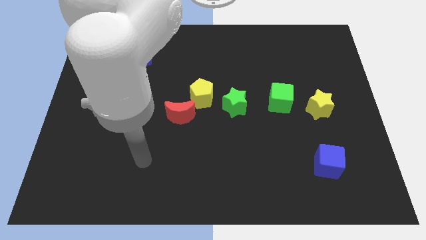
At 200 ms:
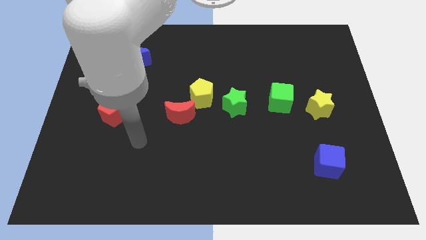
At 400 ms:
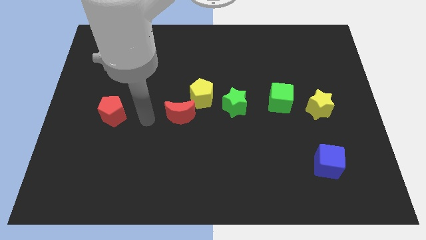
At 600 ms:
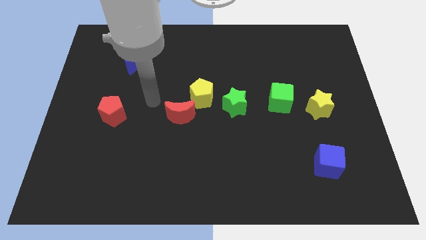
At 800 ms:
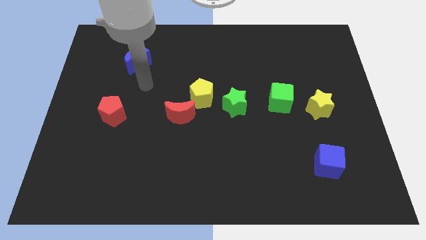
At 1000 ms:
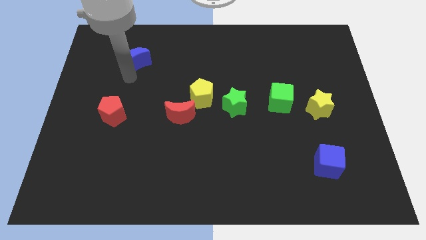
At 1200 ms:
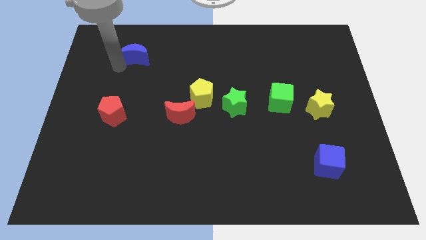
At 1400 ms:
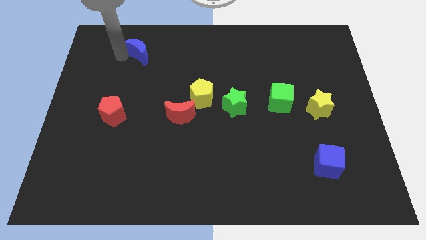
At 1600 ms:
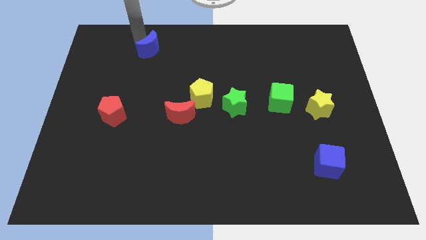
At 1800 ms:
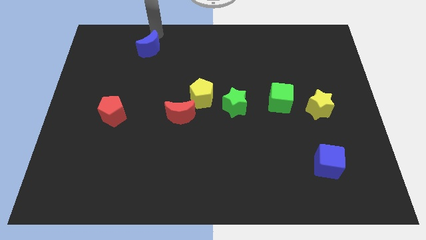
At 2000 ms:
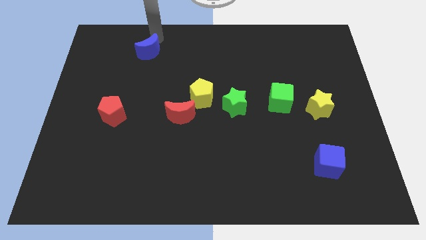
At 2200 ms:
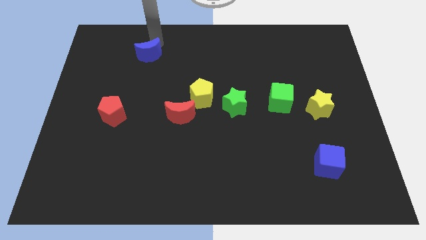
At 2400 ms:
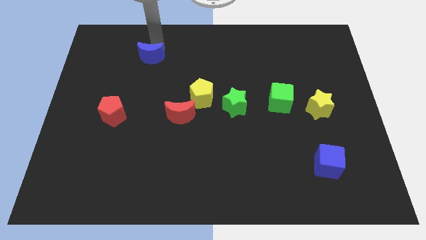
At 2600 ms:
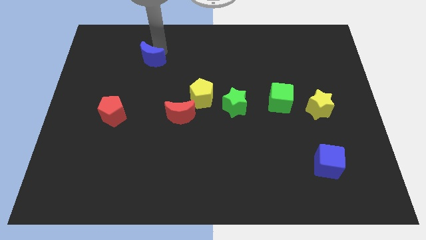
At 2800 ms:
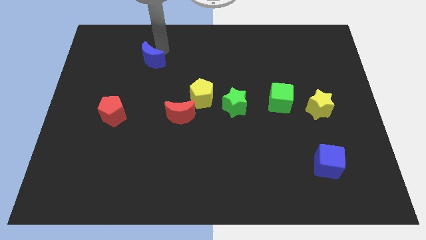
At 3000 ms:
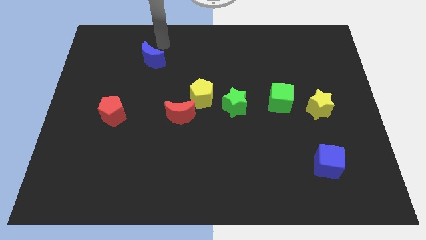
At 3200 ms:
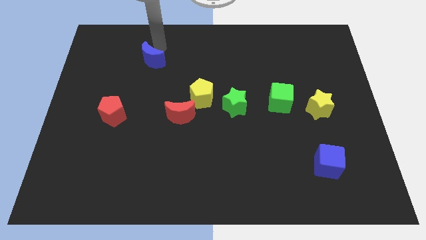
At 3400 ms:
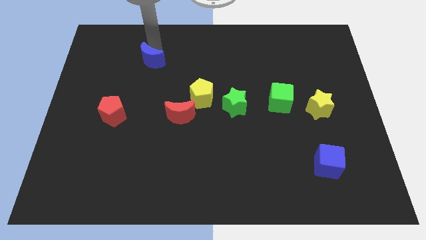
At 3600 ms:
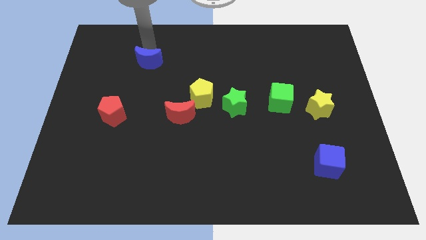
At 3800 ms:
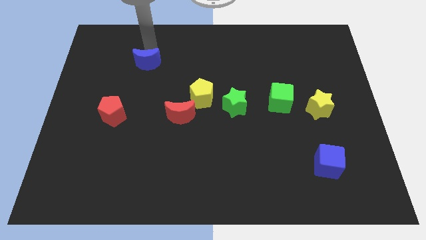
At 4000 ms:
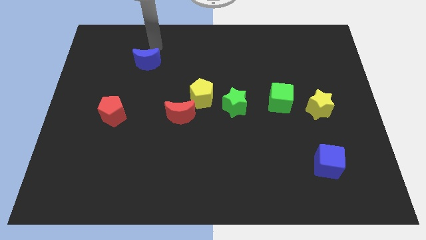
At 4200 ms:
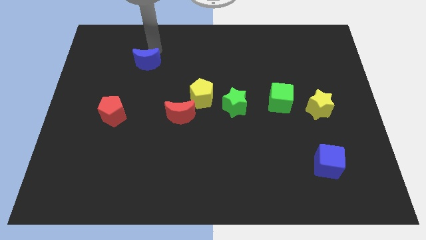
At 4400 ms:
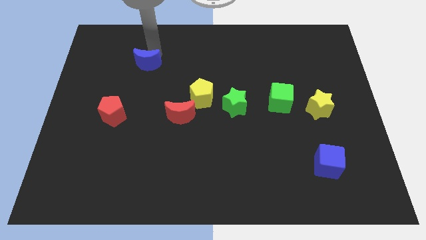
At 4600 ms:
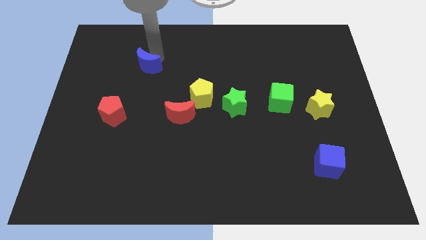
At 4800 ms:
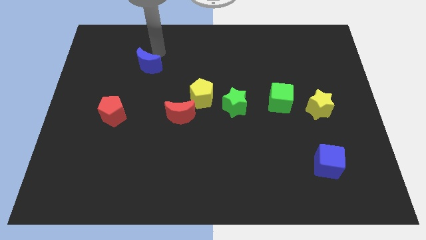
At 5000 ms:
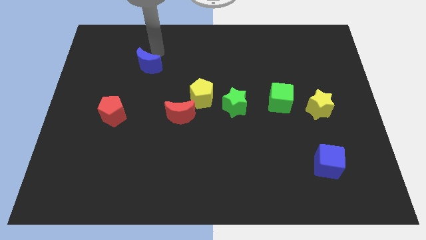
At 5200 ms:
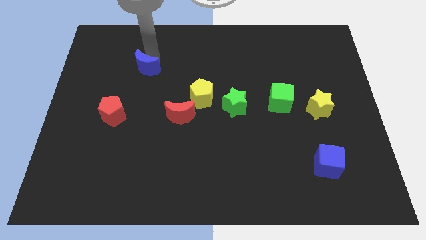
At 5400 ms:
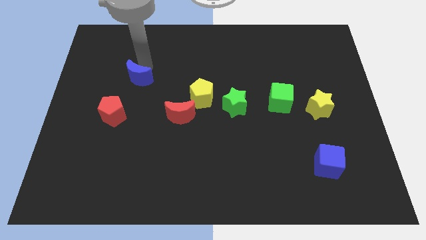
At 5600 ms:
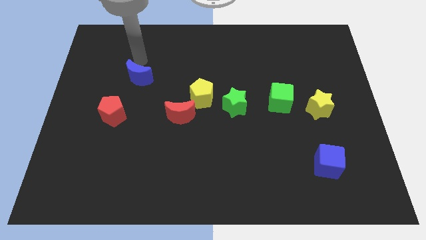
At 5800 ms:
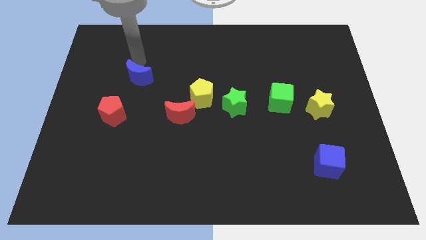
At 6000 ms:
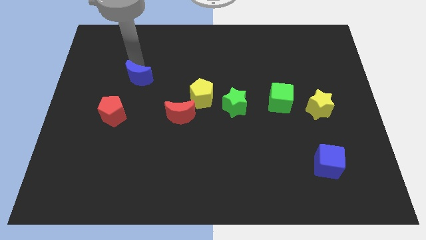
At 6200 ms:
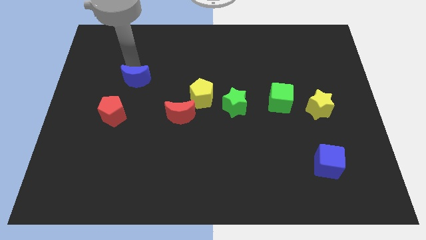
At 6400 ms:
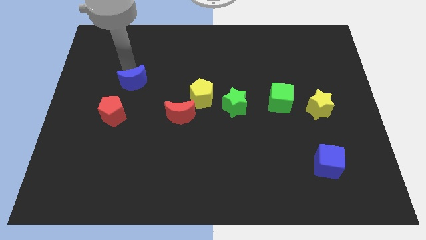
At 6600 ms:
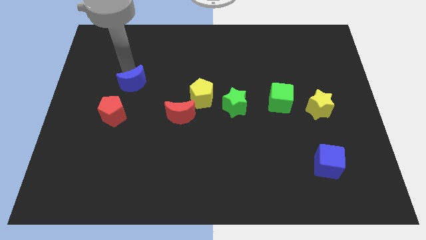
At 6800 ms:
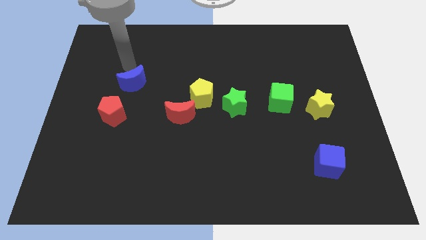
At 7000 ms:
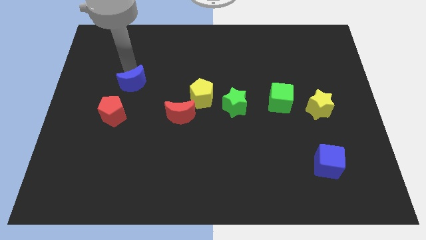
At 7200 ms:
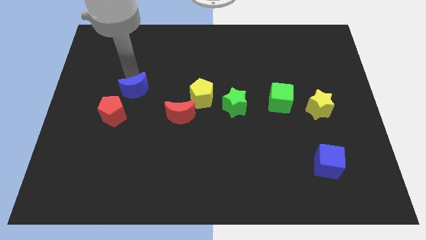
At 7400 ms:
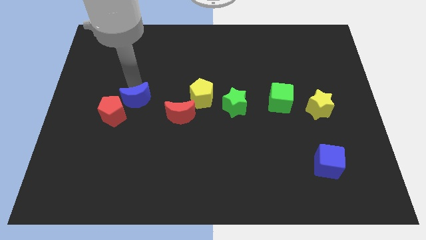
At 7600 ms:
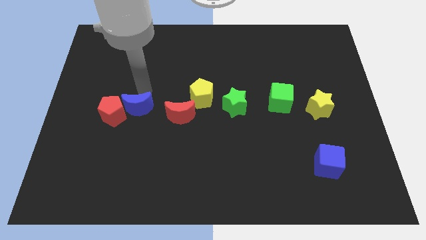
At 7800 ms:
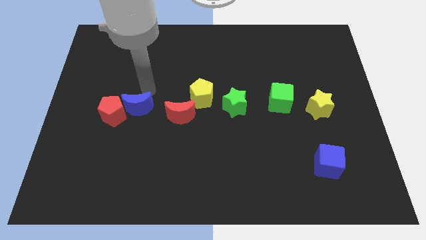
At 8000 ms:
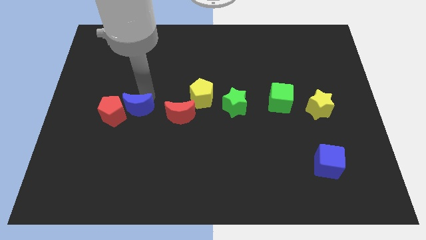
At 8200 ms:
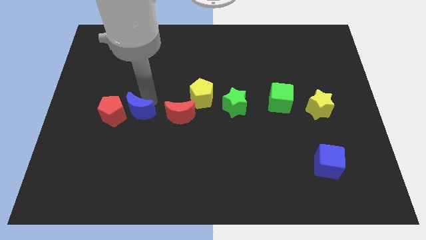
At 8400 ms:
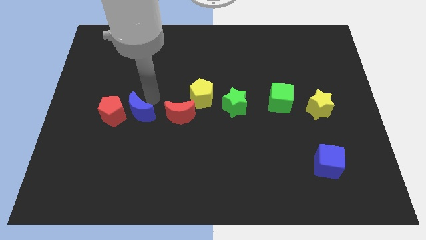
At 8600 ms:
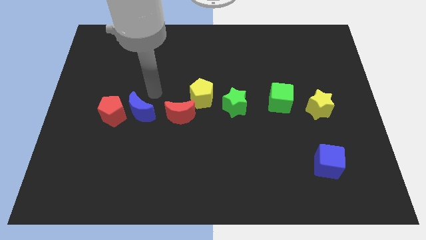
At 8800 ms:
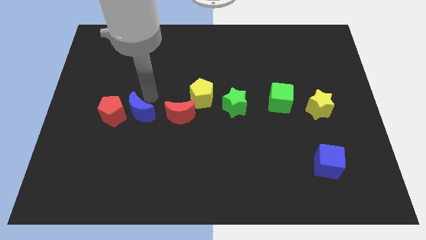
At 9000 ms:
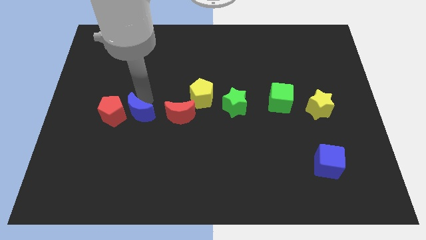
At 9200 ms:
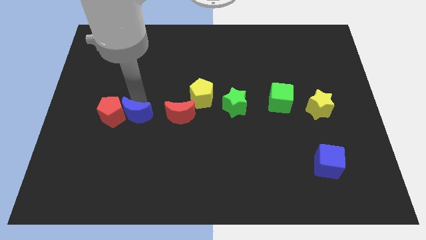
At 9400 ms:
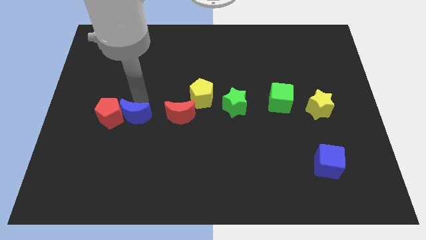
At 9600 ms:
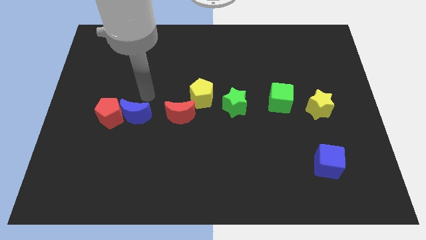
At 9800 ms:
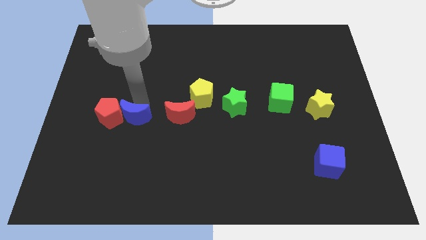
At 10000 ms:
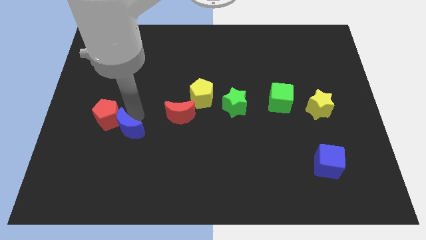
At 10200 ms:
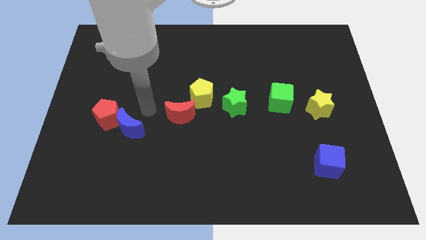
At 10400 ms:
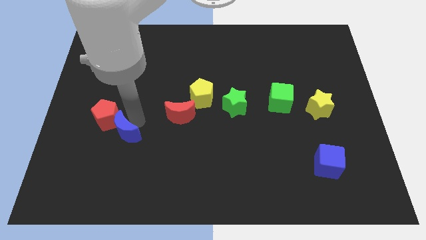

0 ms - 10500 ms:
push the blue moon below the red pentagon

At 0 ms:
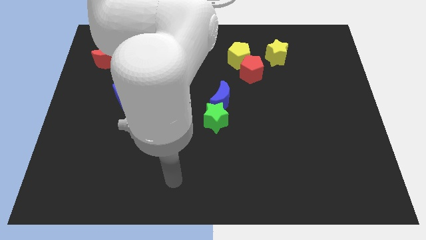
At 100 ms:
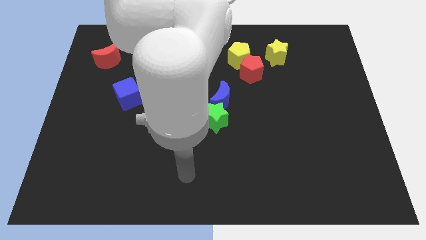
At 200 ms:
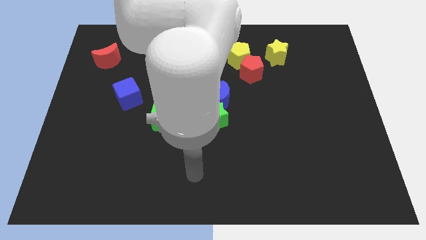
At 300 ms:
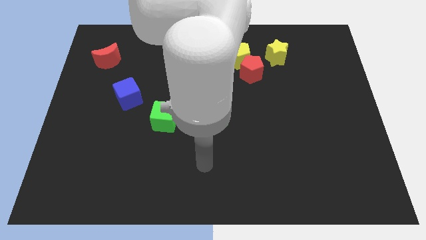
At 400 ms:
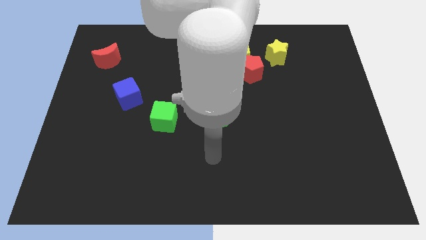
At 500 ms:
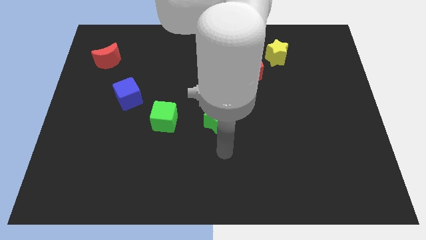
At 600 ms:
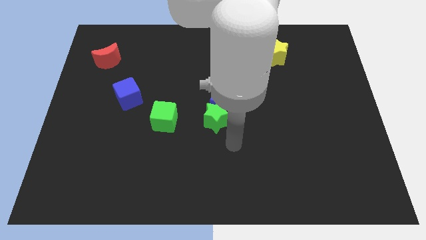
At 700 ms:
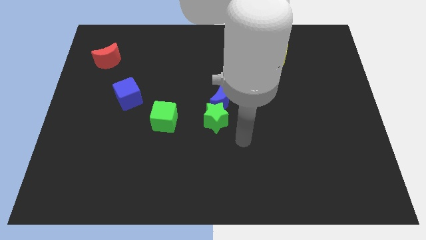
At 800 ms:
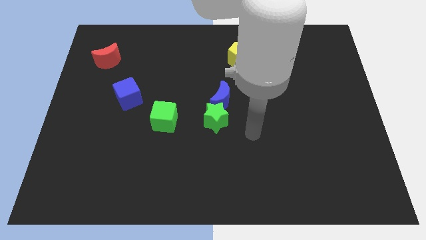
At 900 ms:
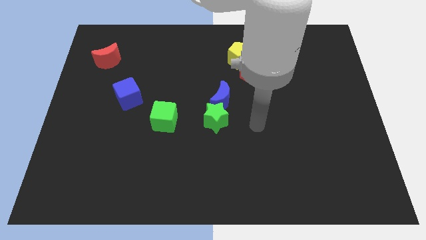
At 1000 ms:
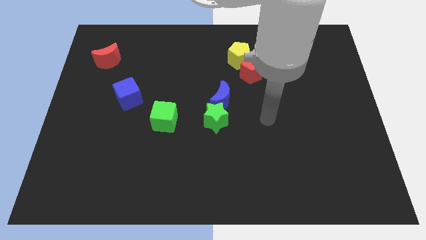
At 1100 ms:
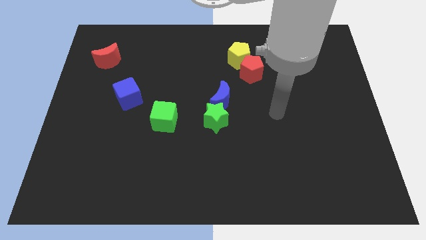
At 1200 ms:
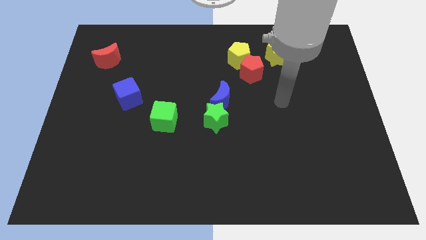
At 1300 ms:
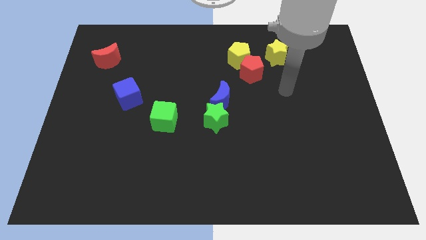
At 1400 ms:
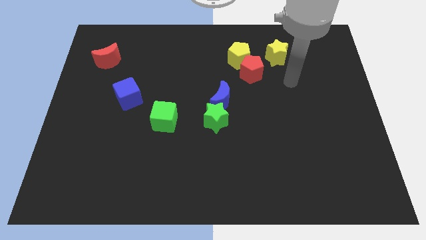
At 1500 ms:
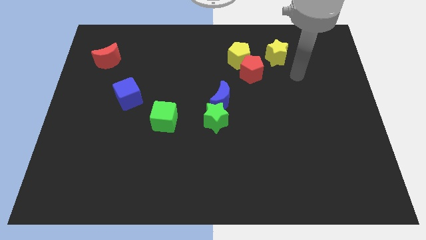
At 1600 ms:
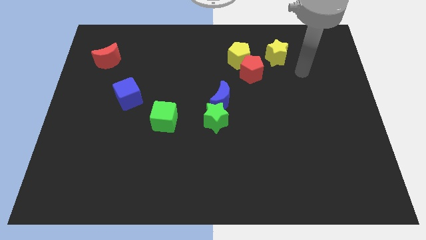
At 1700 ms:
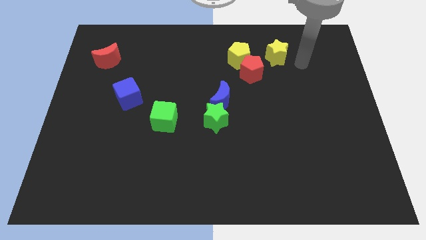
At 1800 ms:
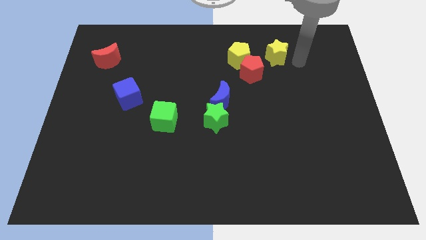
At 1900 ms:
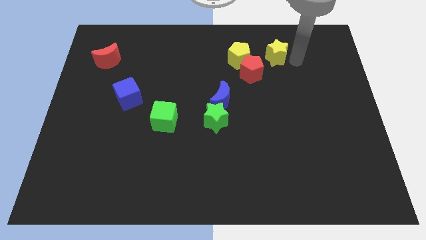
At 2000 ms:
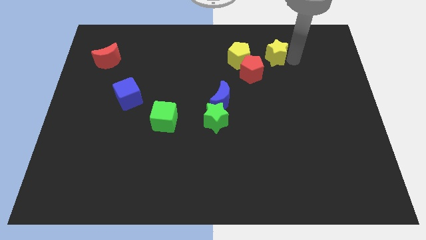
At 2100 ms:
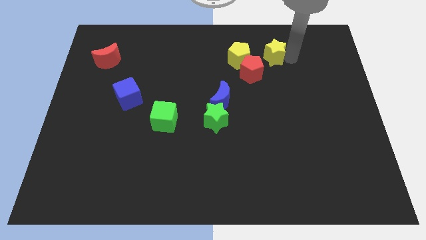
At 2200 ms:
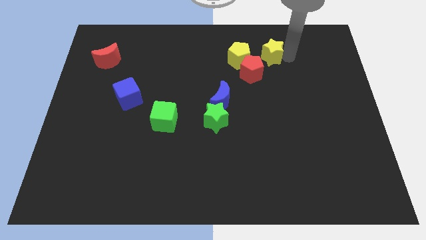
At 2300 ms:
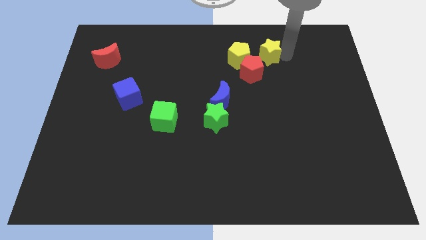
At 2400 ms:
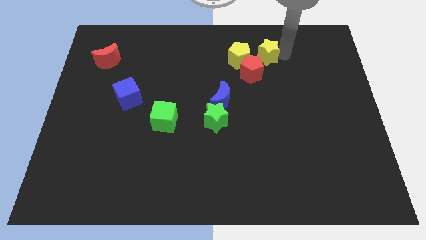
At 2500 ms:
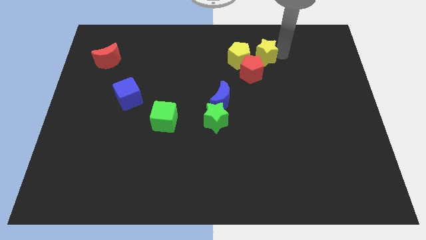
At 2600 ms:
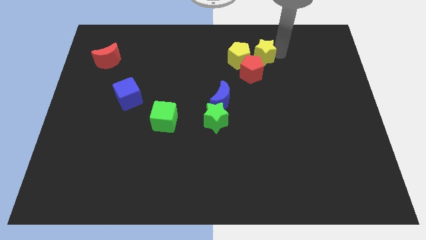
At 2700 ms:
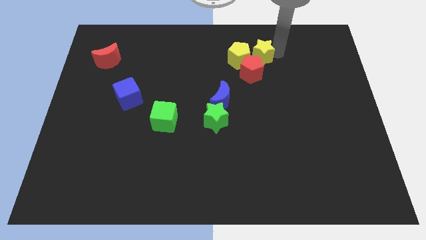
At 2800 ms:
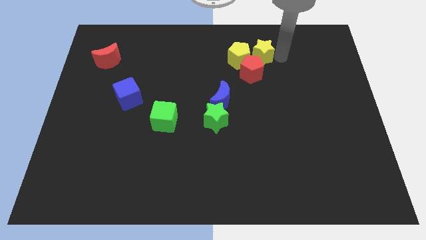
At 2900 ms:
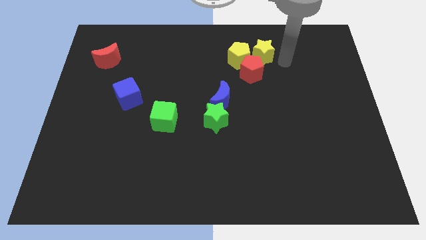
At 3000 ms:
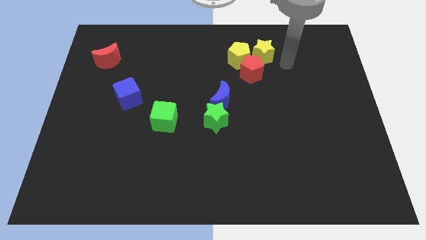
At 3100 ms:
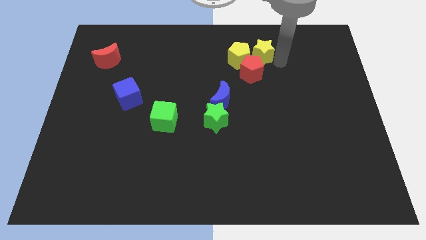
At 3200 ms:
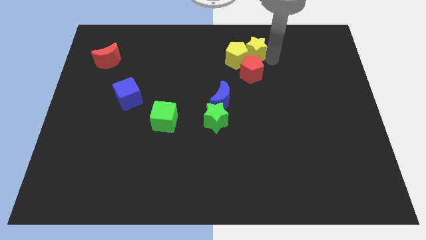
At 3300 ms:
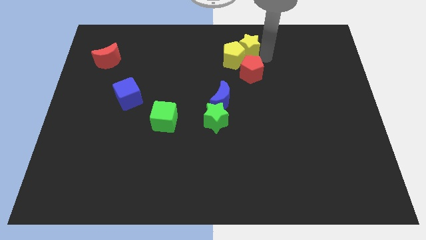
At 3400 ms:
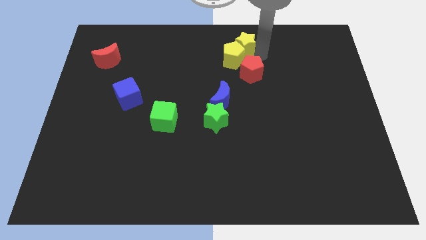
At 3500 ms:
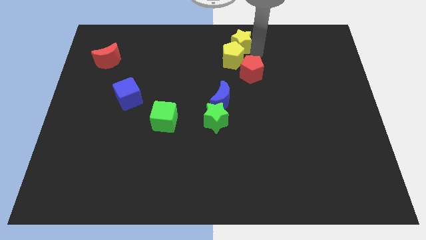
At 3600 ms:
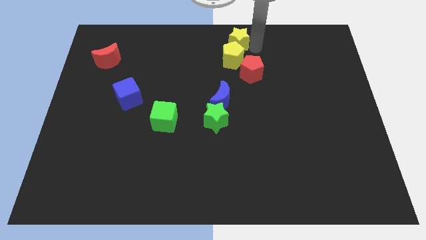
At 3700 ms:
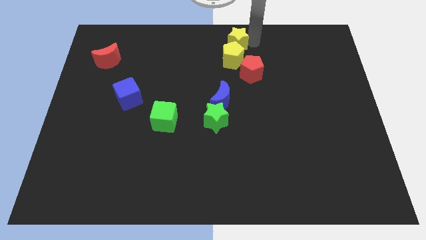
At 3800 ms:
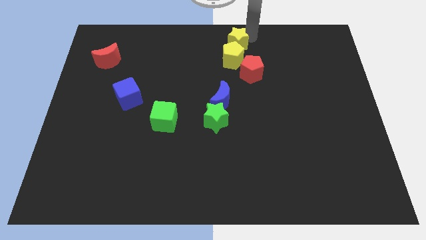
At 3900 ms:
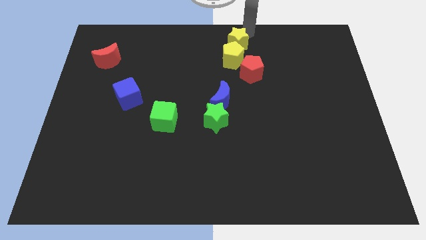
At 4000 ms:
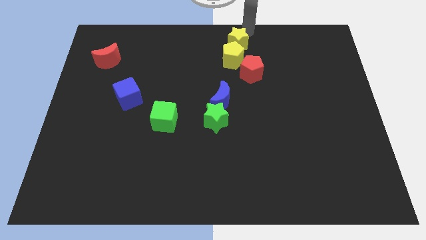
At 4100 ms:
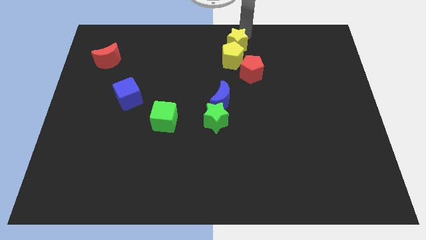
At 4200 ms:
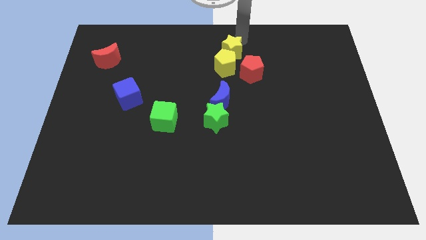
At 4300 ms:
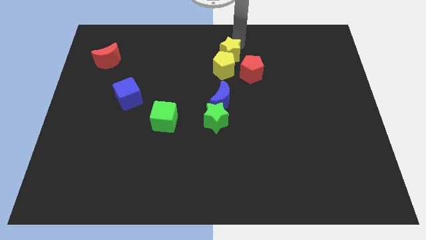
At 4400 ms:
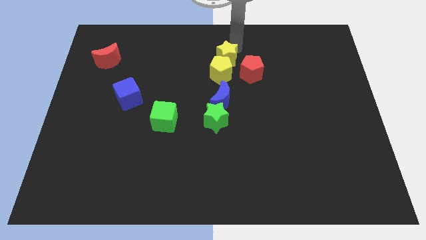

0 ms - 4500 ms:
slide the yellow star above the blue moon
